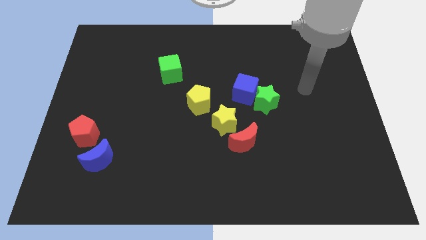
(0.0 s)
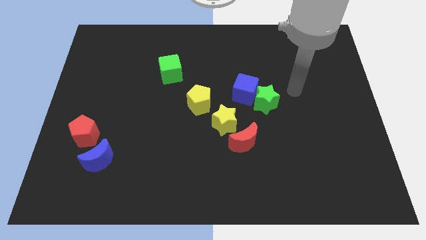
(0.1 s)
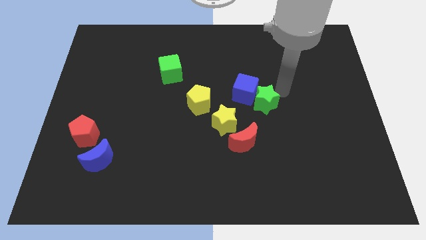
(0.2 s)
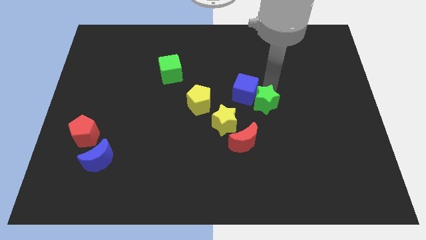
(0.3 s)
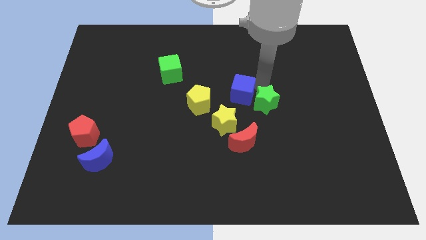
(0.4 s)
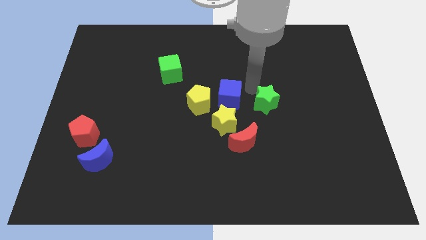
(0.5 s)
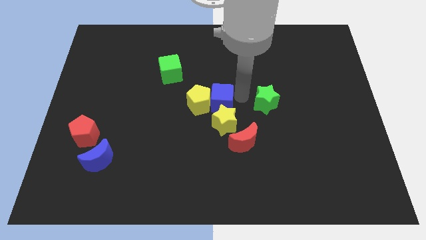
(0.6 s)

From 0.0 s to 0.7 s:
pull the green star apart from the blue cube

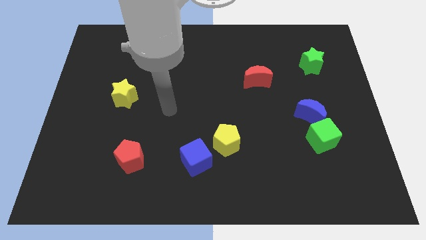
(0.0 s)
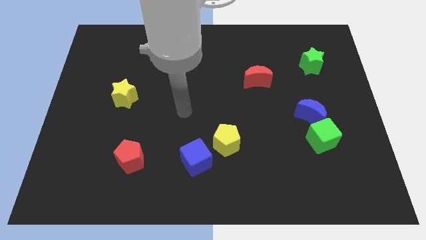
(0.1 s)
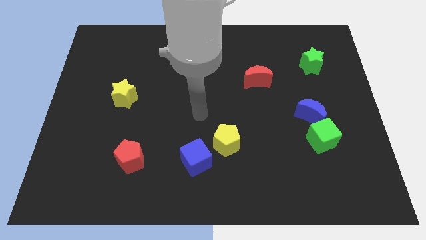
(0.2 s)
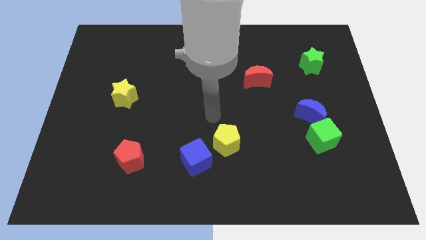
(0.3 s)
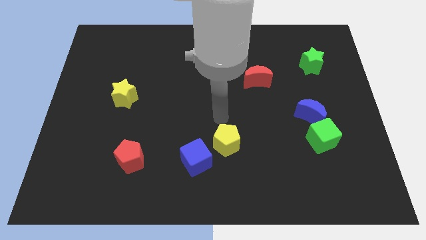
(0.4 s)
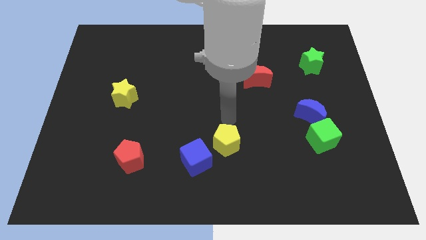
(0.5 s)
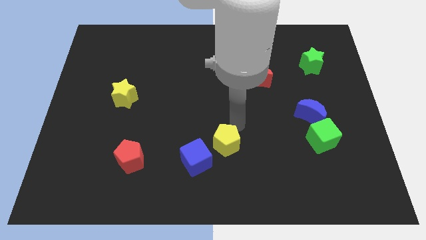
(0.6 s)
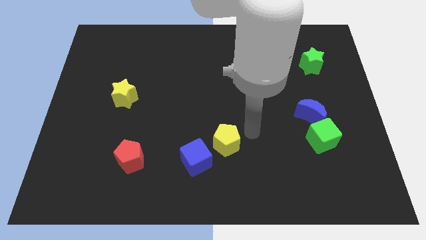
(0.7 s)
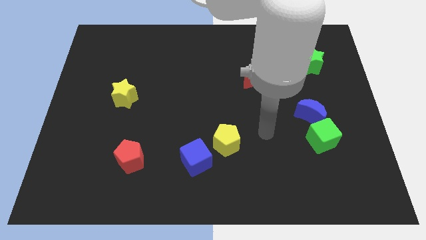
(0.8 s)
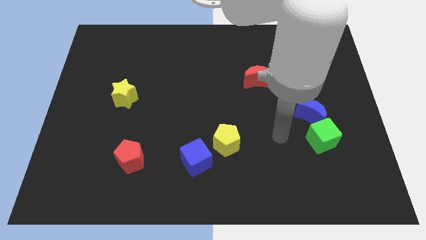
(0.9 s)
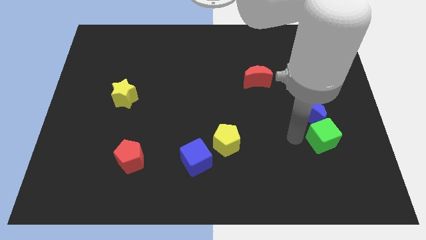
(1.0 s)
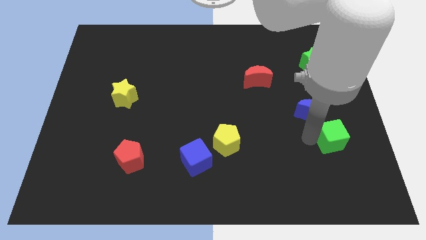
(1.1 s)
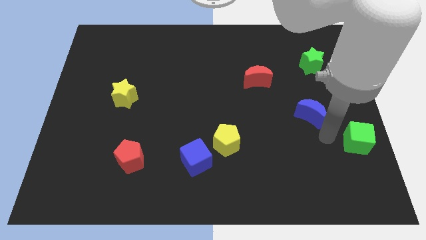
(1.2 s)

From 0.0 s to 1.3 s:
pull the blue moon apart from the green cube

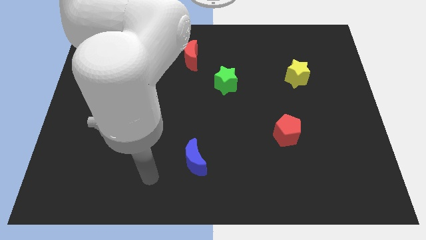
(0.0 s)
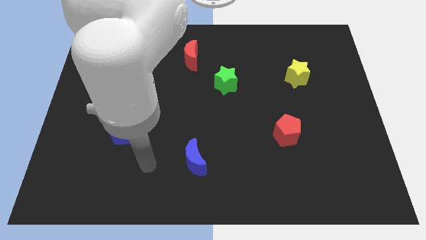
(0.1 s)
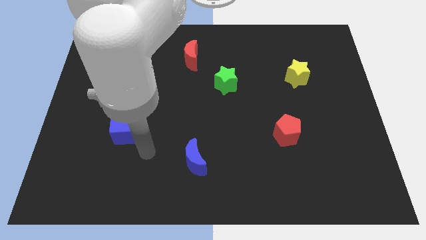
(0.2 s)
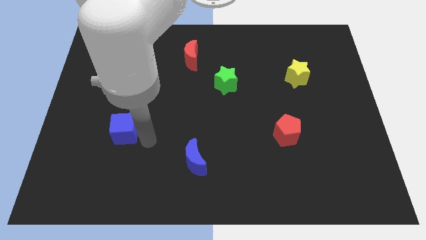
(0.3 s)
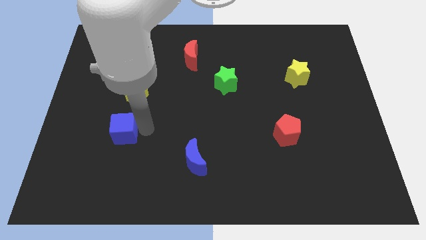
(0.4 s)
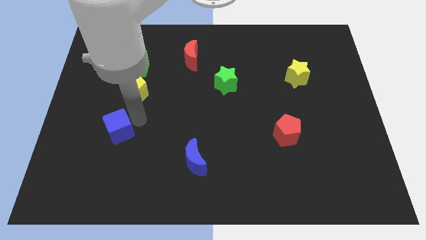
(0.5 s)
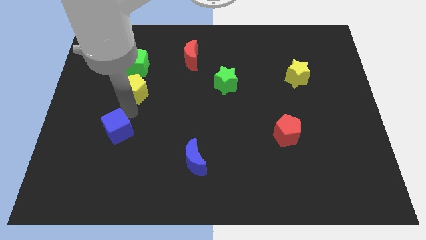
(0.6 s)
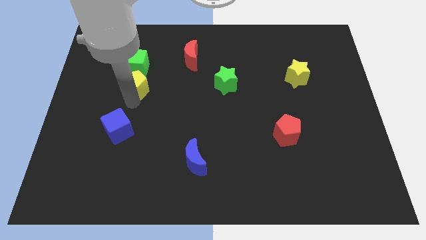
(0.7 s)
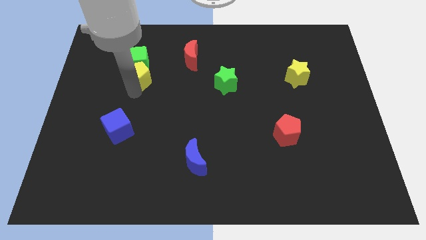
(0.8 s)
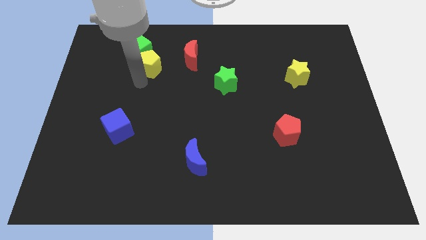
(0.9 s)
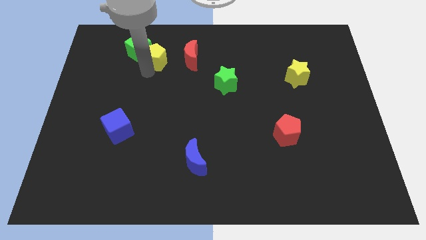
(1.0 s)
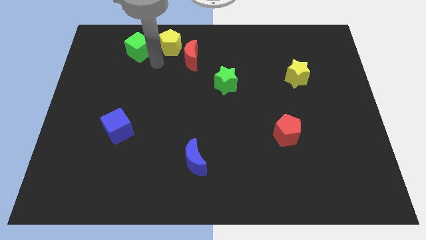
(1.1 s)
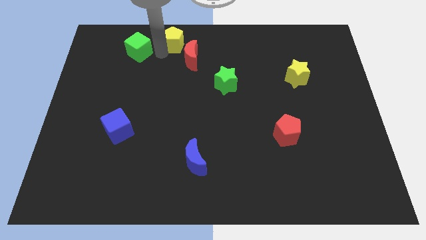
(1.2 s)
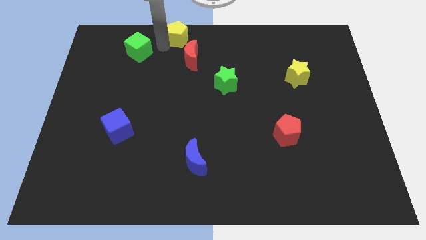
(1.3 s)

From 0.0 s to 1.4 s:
separate the green cube from the yellow pentagon

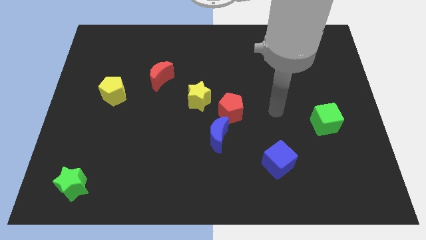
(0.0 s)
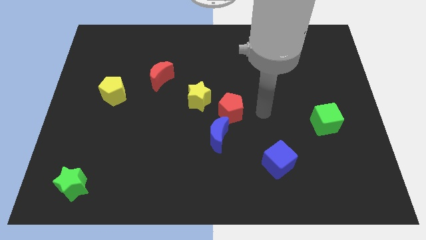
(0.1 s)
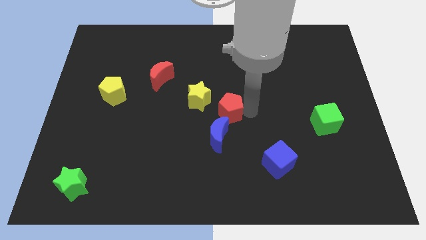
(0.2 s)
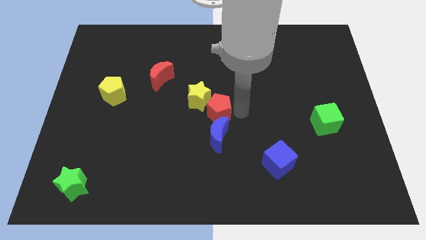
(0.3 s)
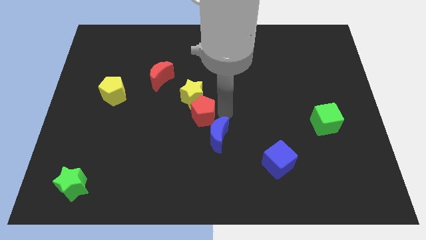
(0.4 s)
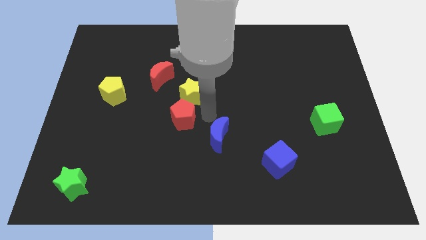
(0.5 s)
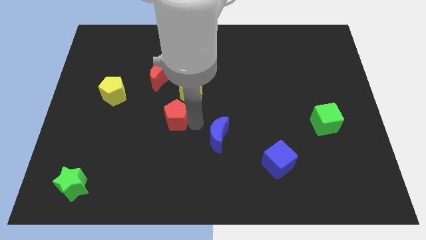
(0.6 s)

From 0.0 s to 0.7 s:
pull the blue moon apart from the red pentagon

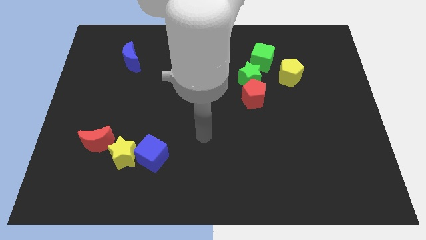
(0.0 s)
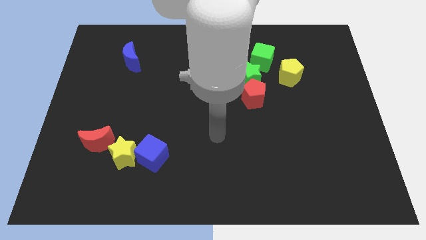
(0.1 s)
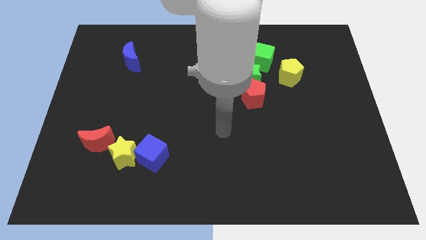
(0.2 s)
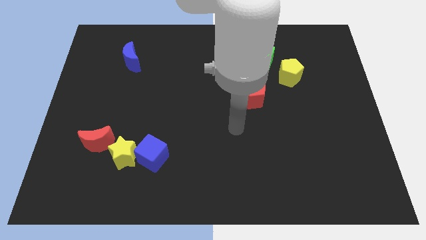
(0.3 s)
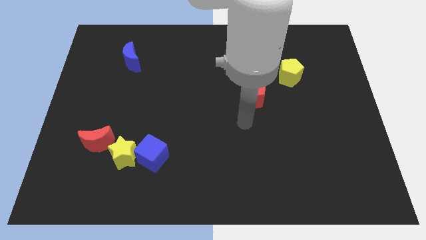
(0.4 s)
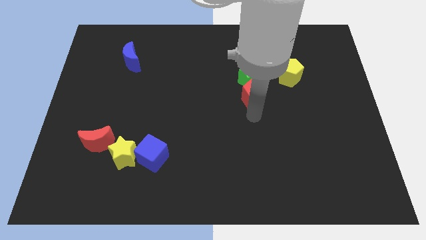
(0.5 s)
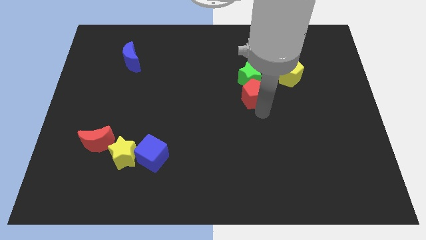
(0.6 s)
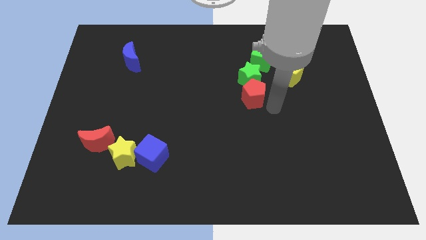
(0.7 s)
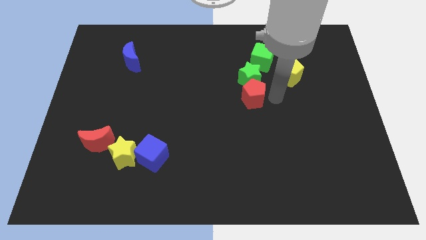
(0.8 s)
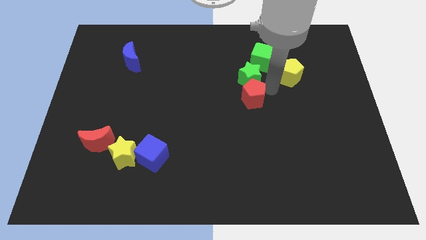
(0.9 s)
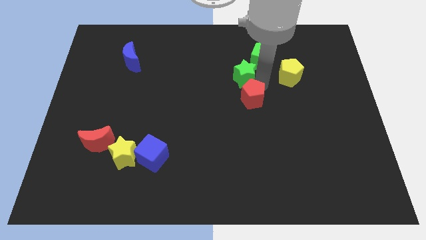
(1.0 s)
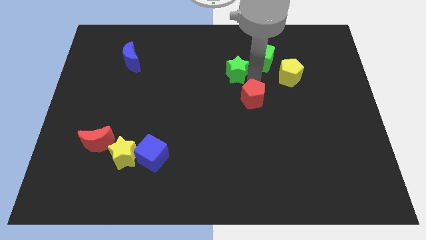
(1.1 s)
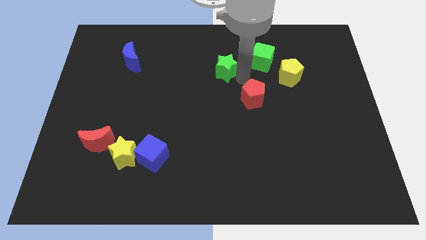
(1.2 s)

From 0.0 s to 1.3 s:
pull the red pentagon apart from the green star

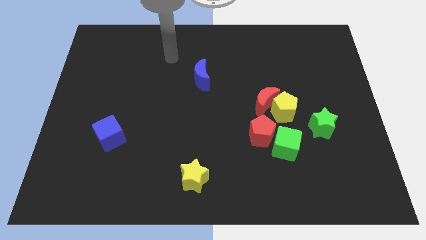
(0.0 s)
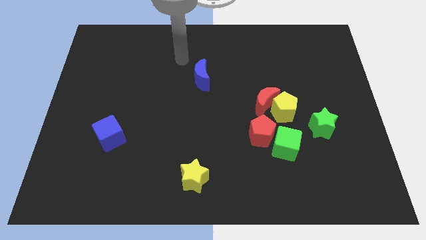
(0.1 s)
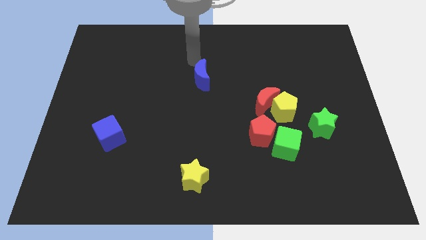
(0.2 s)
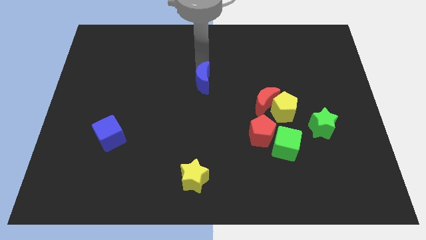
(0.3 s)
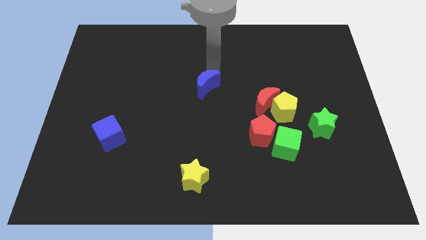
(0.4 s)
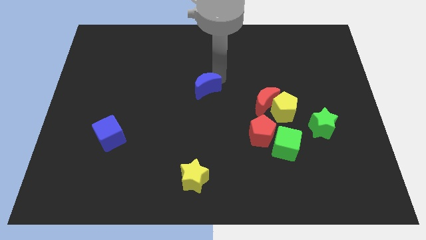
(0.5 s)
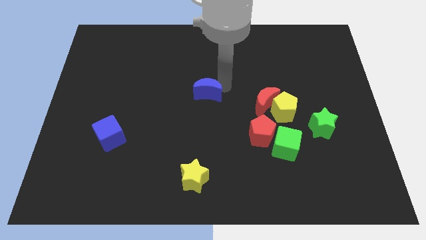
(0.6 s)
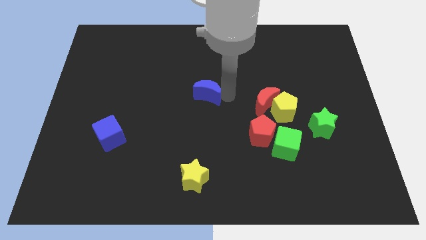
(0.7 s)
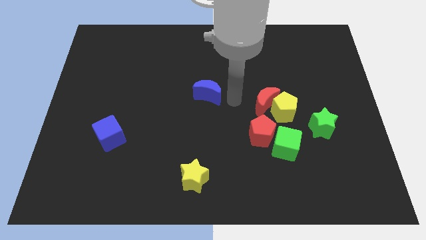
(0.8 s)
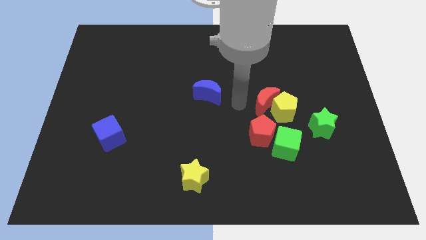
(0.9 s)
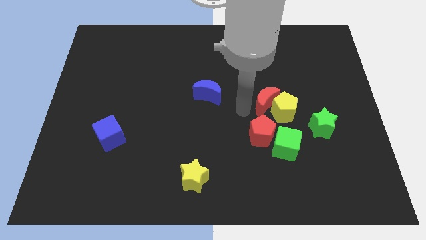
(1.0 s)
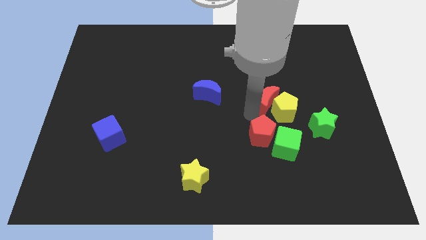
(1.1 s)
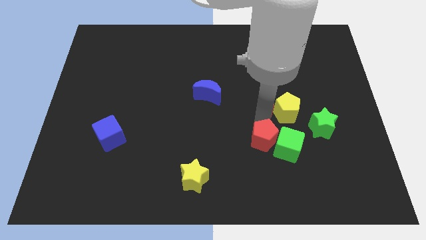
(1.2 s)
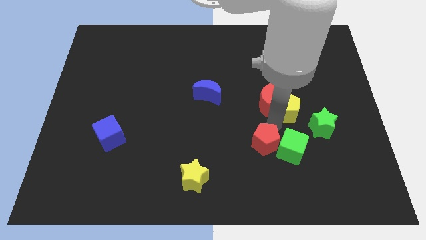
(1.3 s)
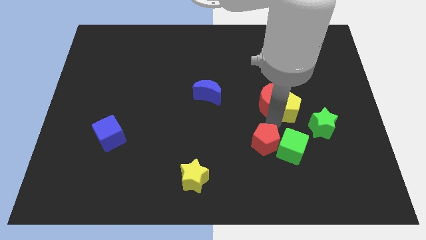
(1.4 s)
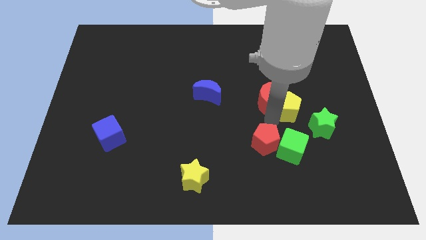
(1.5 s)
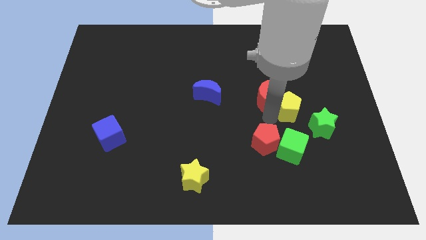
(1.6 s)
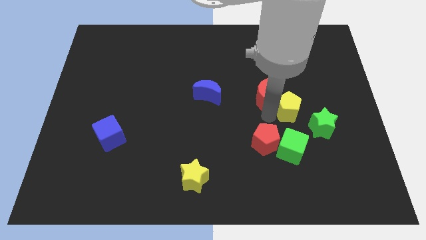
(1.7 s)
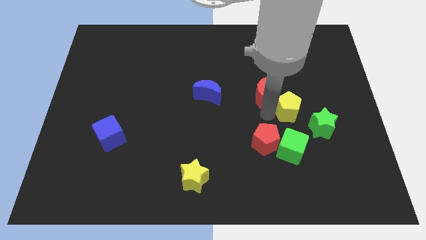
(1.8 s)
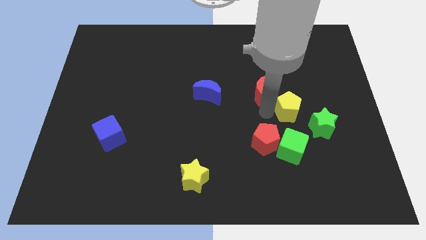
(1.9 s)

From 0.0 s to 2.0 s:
separate the red moon from the yellow pentagon and red pentagon

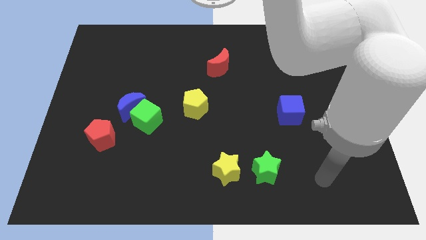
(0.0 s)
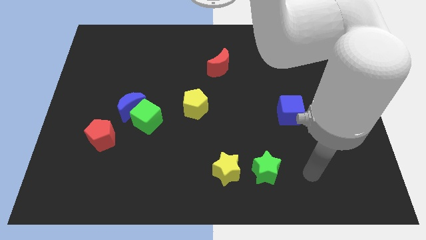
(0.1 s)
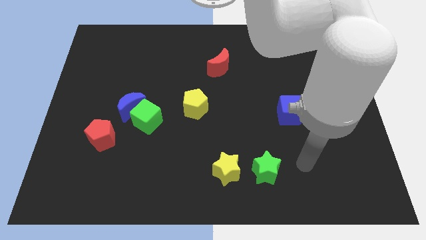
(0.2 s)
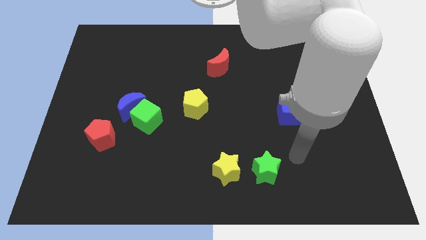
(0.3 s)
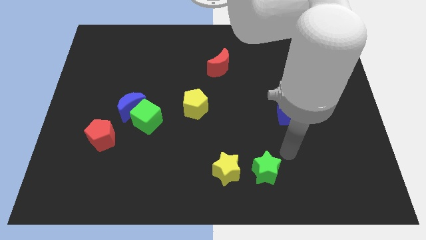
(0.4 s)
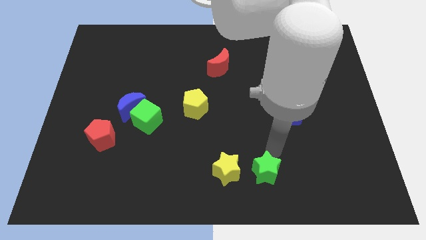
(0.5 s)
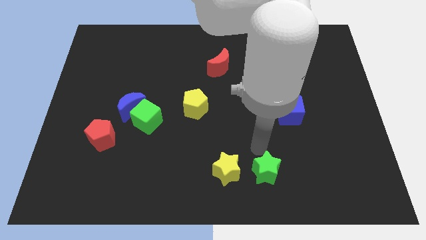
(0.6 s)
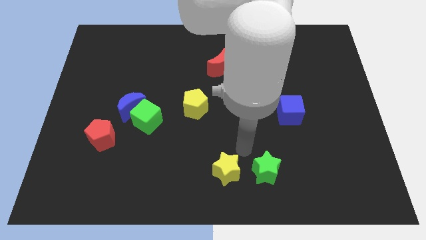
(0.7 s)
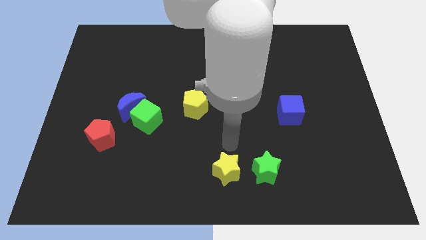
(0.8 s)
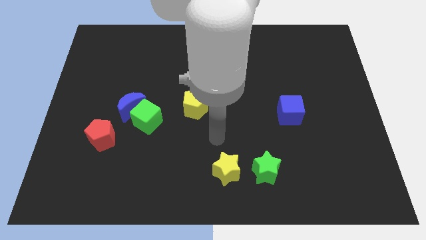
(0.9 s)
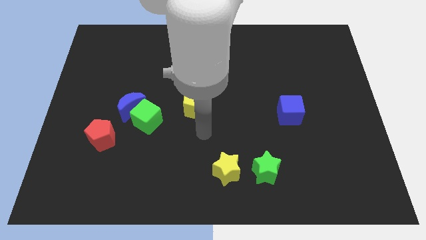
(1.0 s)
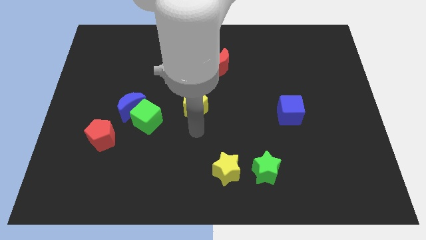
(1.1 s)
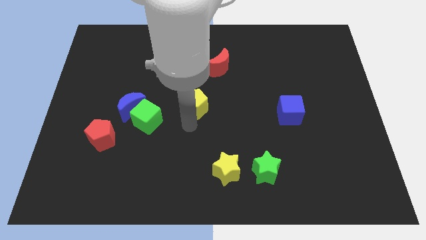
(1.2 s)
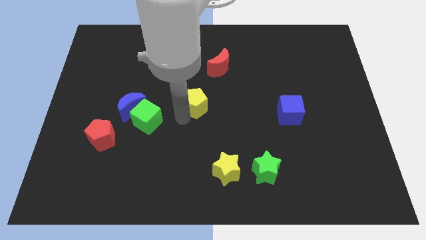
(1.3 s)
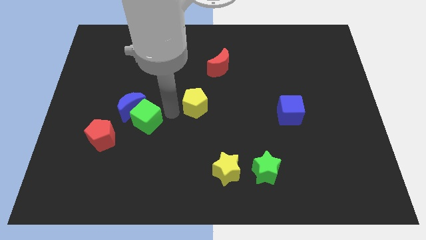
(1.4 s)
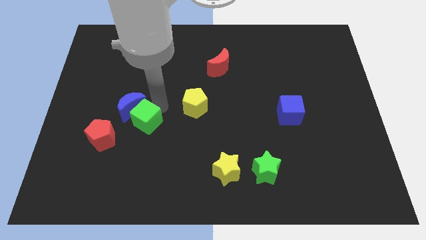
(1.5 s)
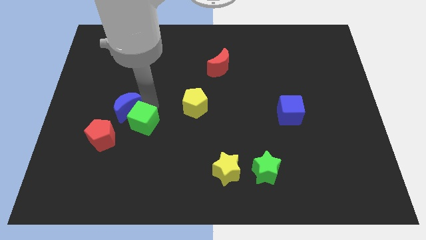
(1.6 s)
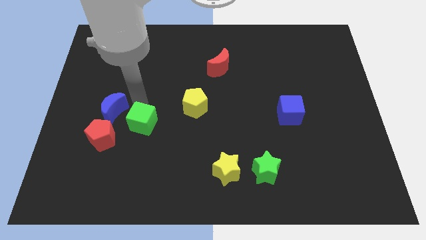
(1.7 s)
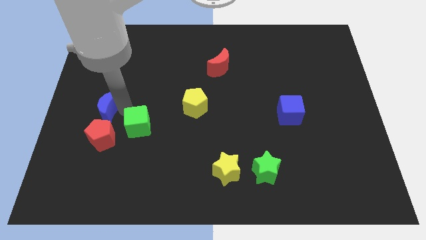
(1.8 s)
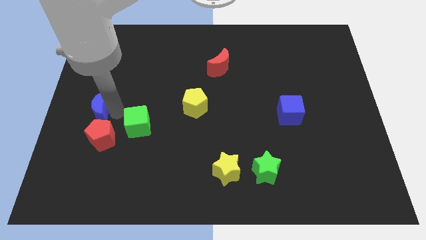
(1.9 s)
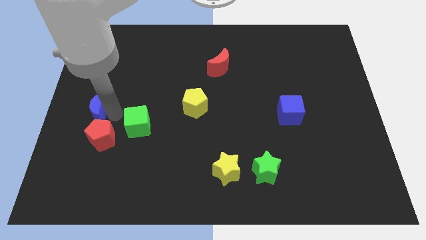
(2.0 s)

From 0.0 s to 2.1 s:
pull the green cube apart from the blue moon
